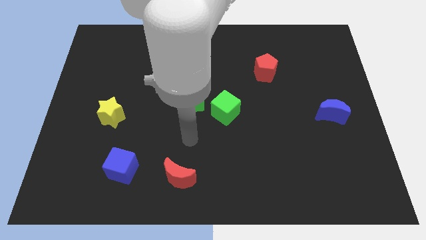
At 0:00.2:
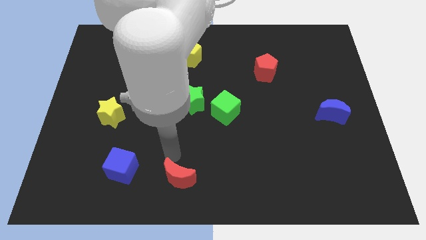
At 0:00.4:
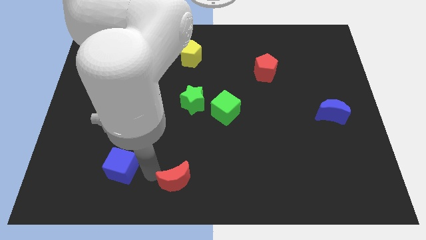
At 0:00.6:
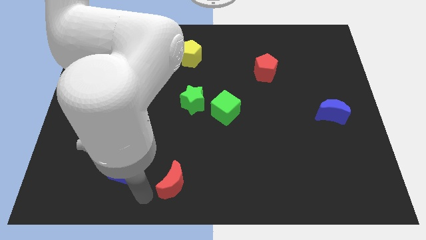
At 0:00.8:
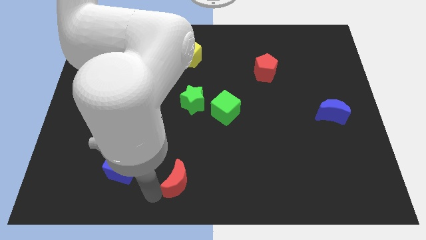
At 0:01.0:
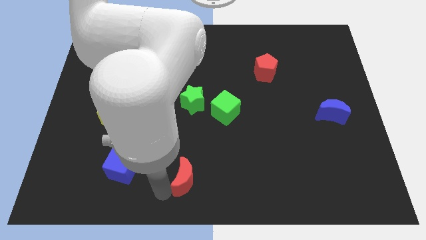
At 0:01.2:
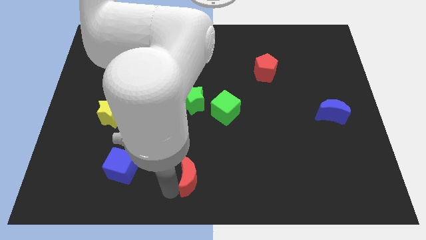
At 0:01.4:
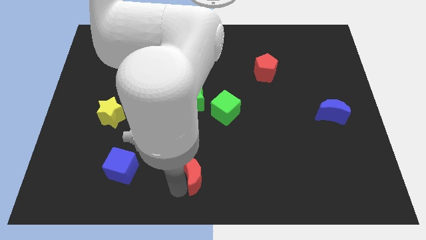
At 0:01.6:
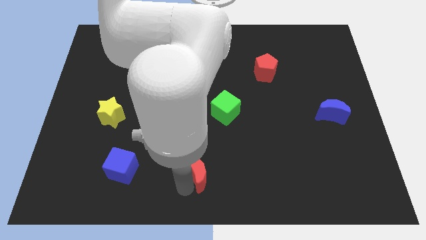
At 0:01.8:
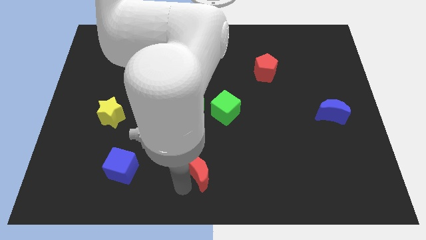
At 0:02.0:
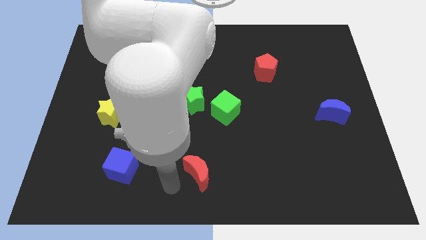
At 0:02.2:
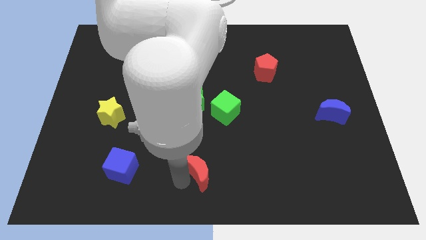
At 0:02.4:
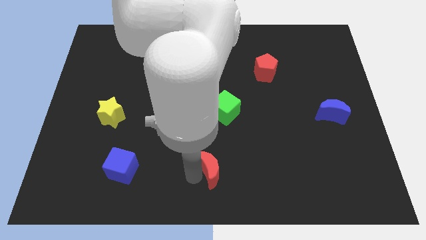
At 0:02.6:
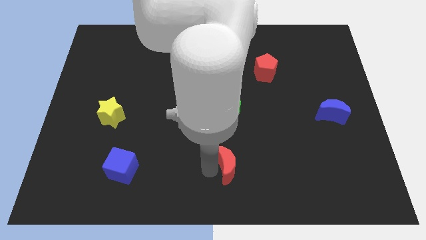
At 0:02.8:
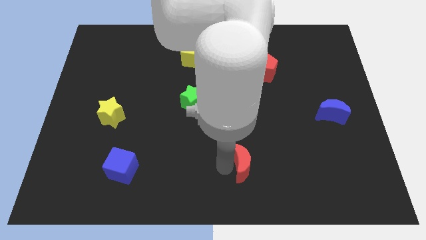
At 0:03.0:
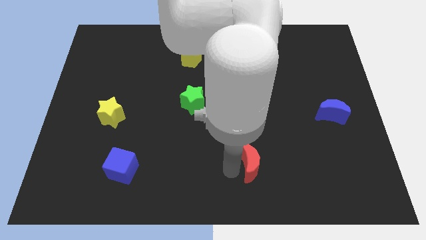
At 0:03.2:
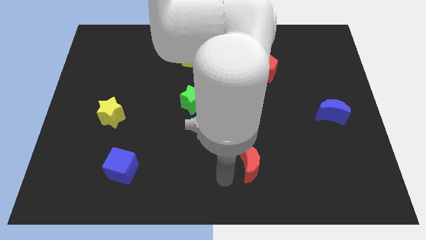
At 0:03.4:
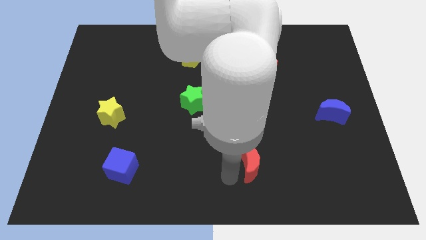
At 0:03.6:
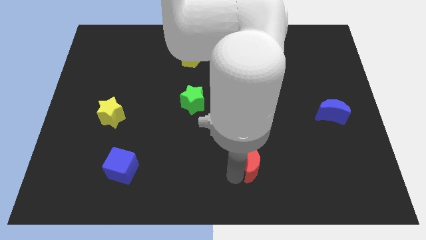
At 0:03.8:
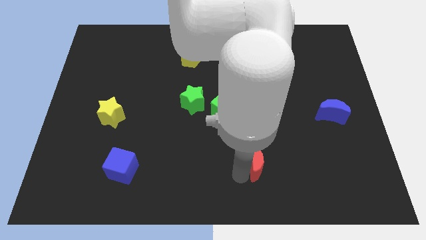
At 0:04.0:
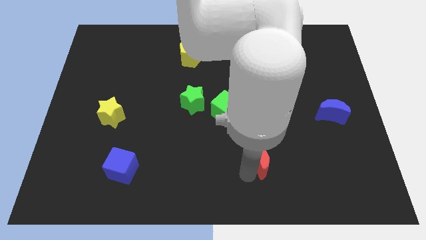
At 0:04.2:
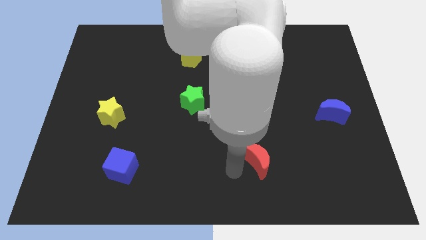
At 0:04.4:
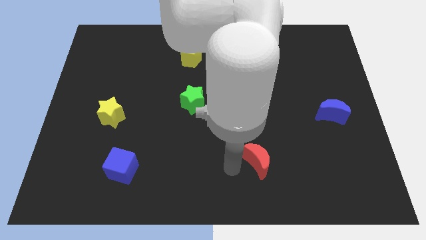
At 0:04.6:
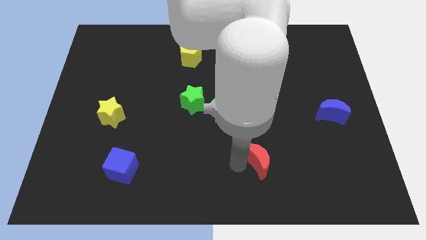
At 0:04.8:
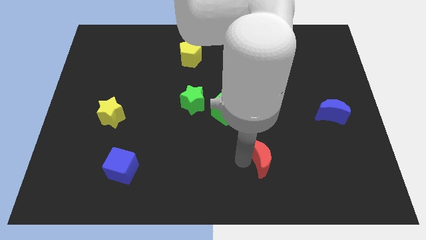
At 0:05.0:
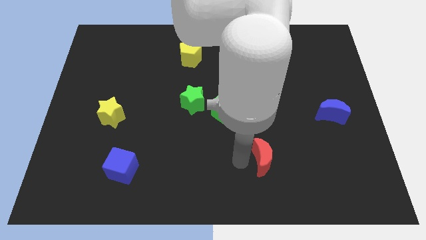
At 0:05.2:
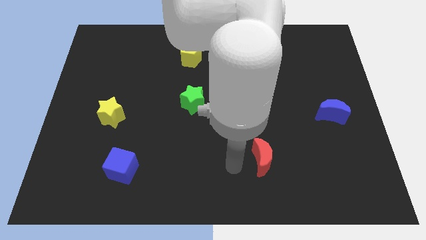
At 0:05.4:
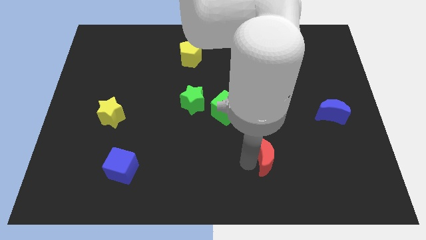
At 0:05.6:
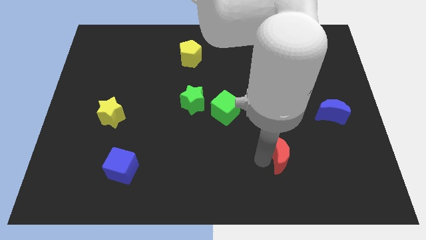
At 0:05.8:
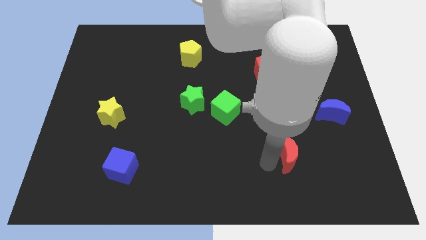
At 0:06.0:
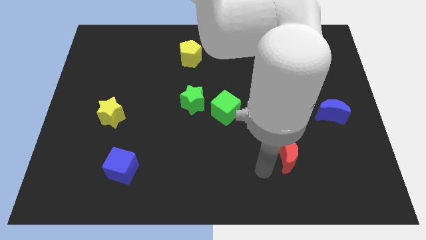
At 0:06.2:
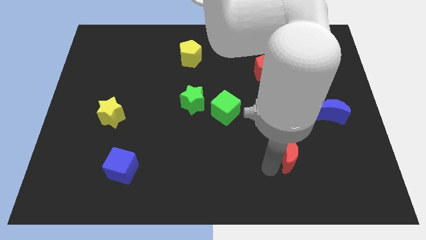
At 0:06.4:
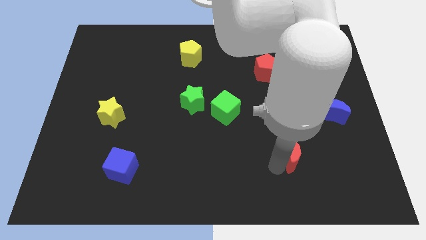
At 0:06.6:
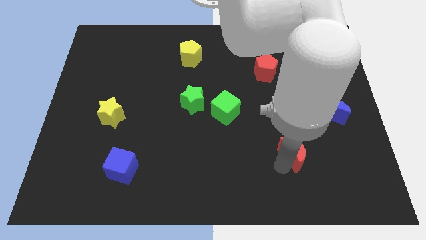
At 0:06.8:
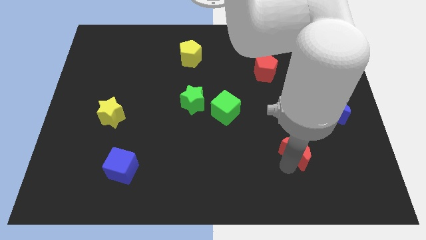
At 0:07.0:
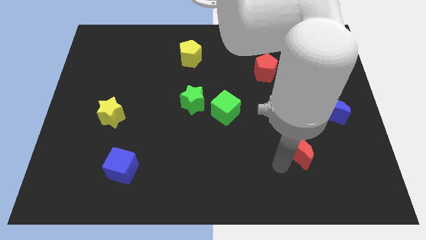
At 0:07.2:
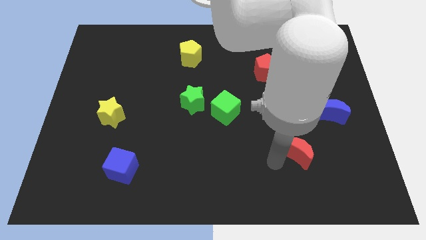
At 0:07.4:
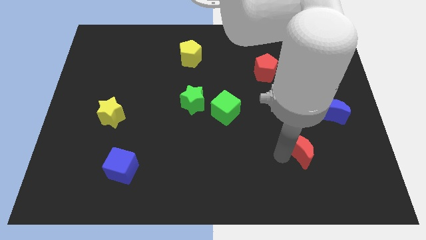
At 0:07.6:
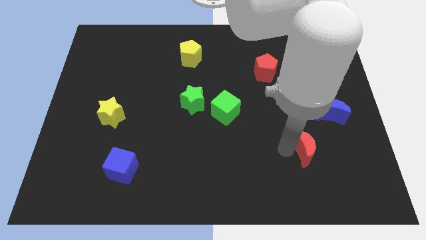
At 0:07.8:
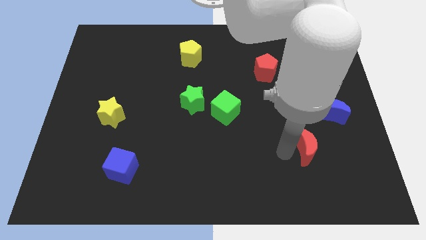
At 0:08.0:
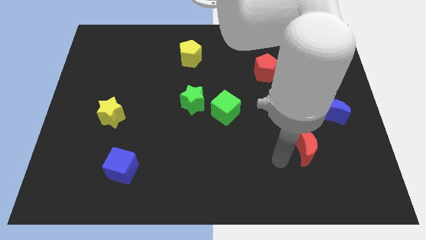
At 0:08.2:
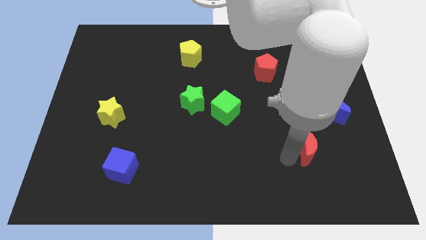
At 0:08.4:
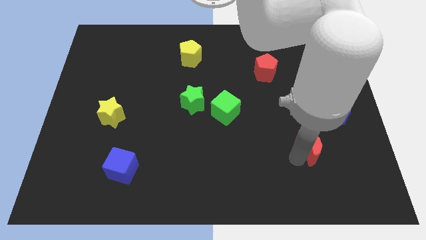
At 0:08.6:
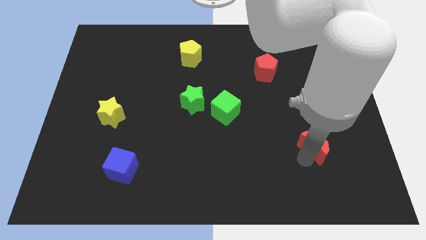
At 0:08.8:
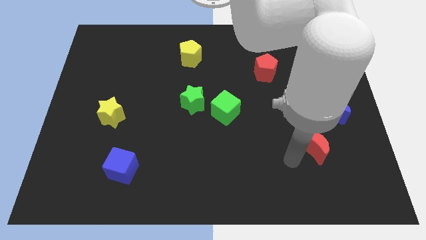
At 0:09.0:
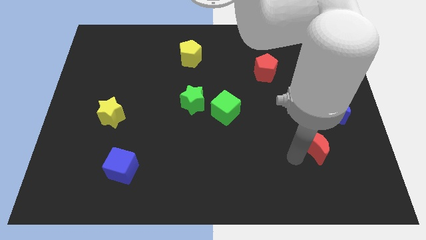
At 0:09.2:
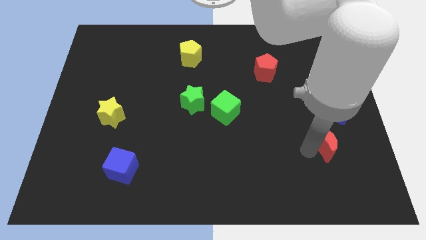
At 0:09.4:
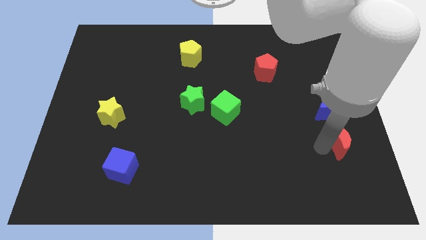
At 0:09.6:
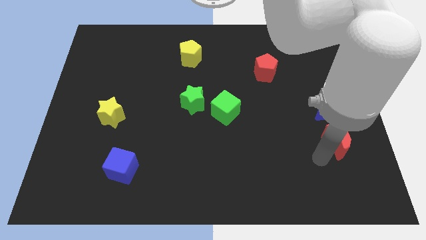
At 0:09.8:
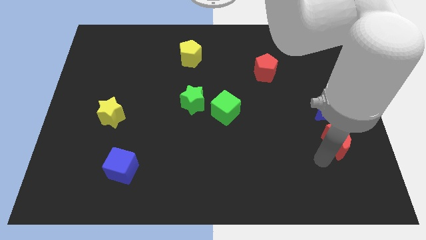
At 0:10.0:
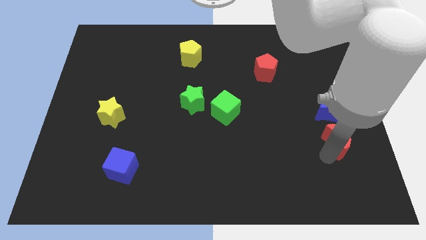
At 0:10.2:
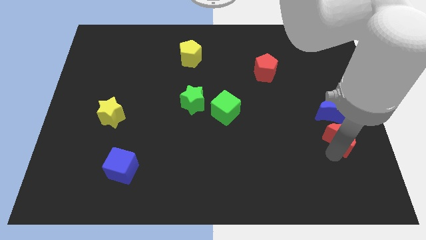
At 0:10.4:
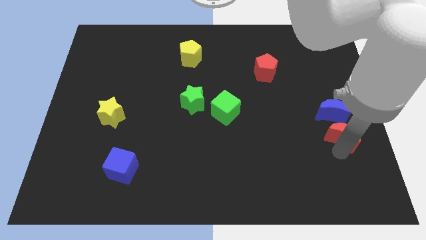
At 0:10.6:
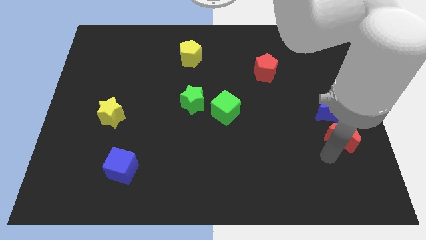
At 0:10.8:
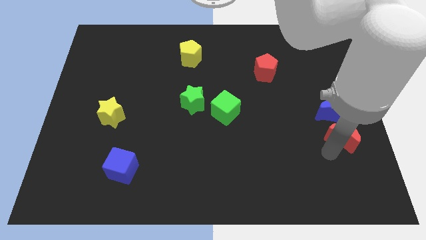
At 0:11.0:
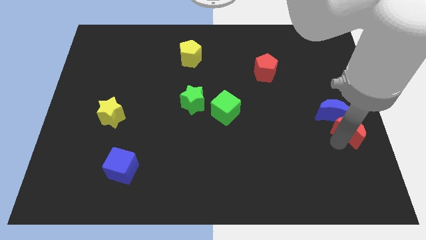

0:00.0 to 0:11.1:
slide the red moon to the right side
